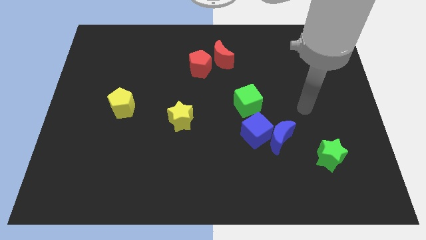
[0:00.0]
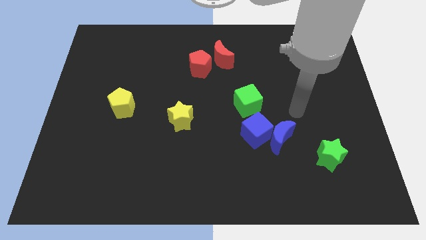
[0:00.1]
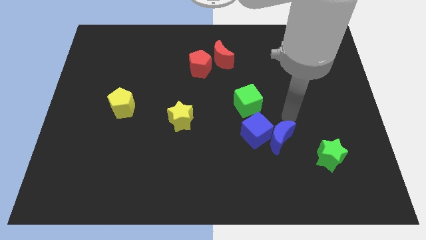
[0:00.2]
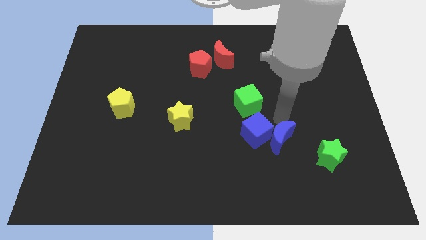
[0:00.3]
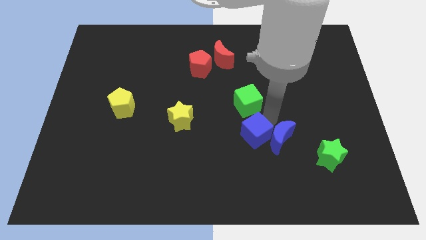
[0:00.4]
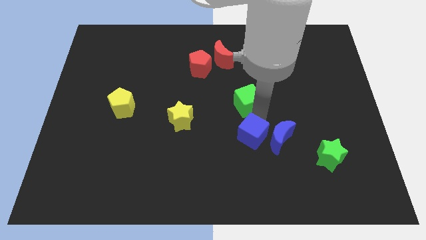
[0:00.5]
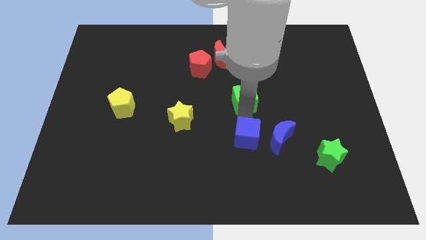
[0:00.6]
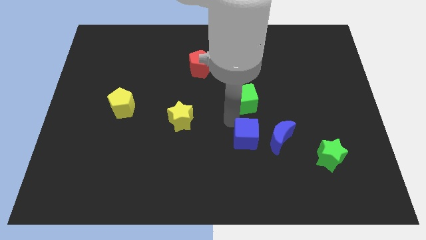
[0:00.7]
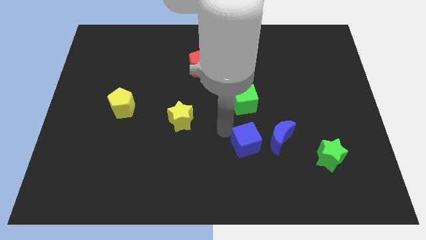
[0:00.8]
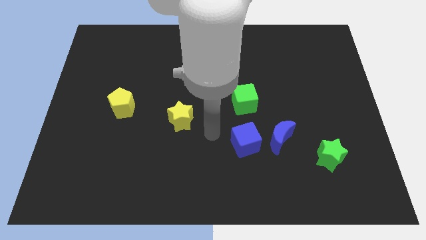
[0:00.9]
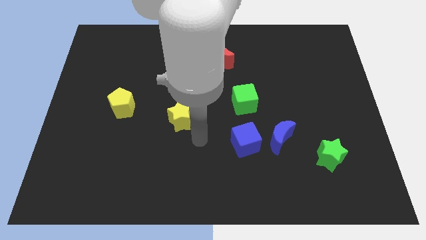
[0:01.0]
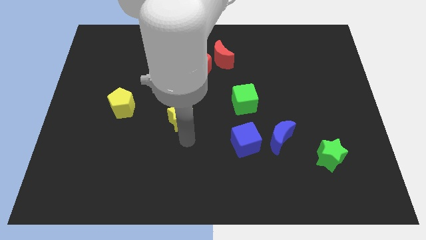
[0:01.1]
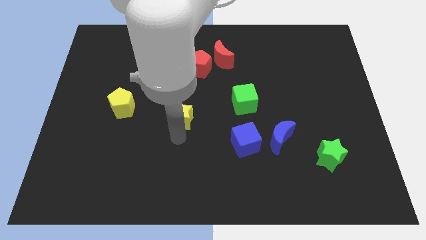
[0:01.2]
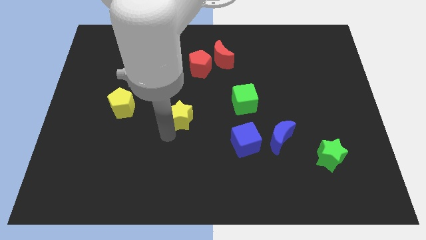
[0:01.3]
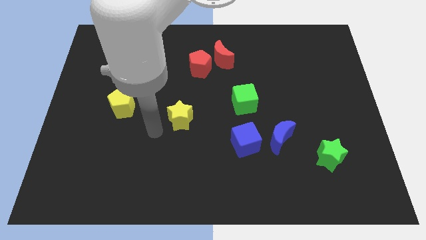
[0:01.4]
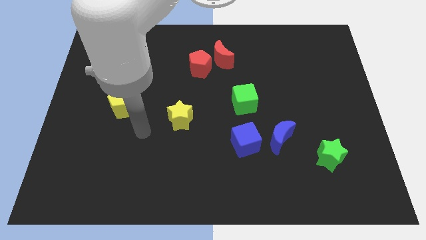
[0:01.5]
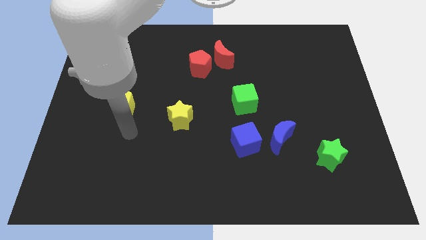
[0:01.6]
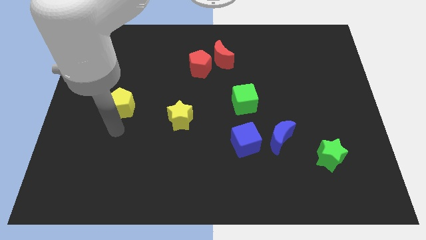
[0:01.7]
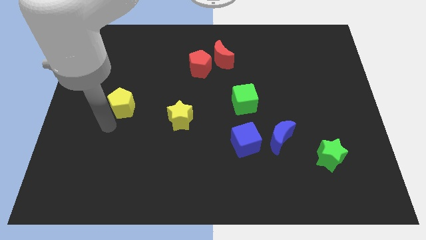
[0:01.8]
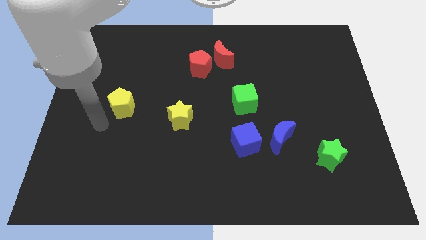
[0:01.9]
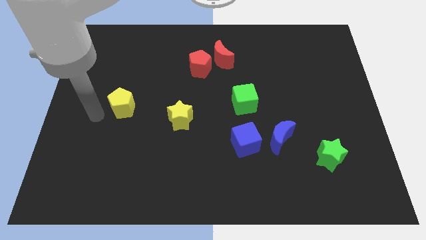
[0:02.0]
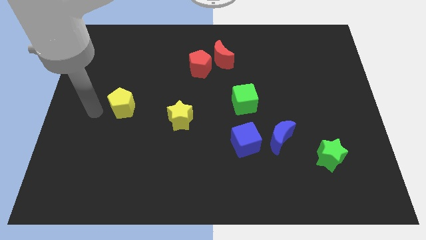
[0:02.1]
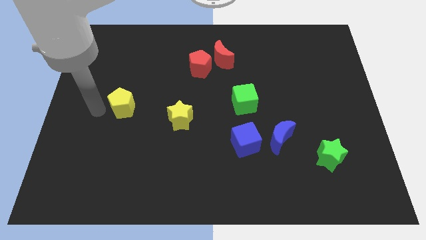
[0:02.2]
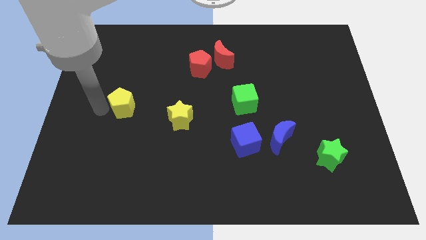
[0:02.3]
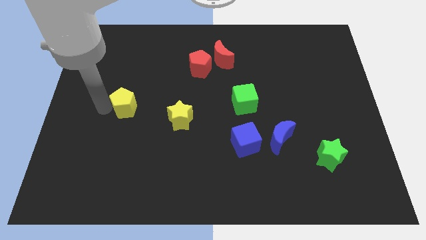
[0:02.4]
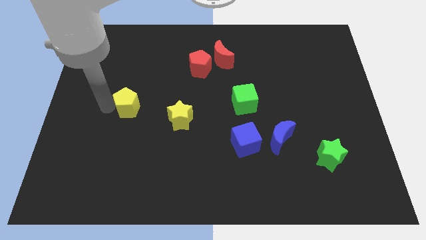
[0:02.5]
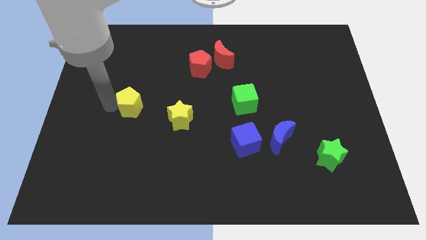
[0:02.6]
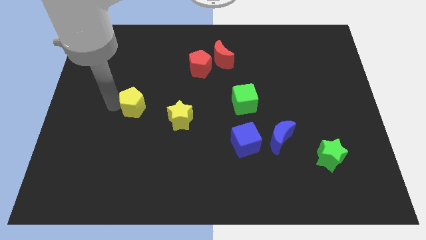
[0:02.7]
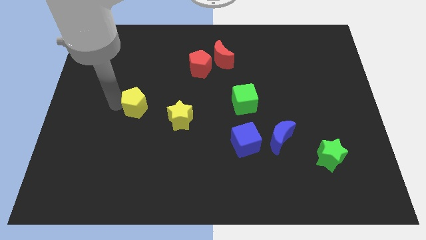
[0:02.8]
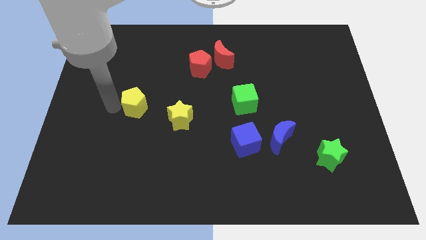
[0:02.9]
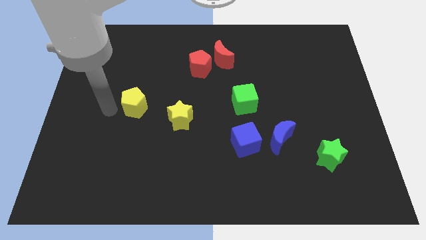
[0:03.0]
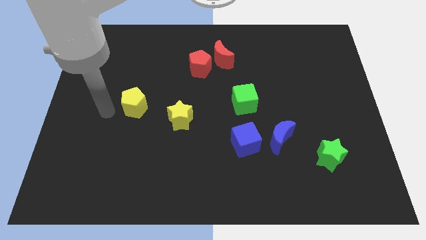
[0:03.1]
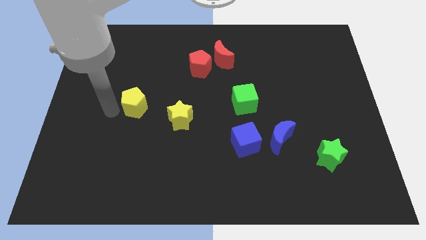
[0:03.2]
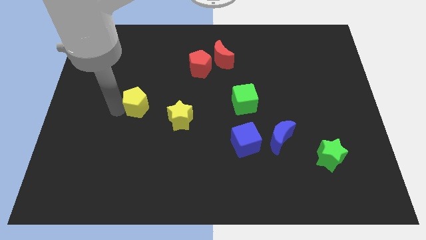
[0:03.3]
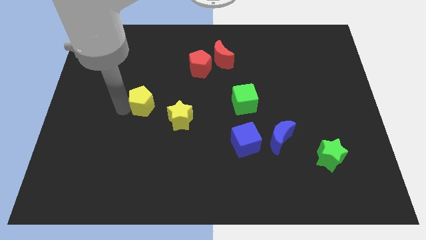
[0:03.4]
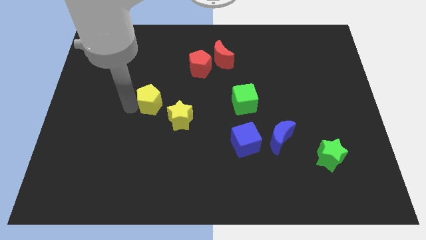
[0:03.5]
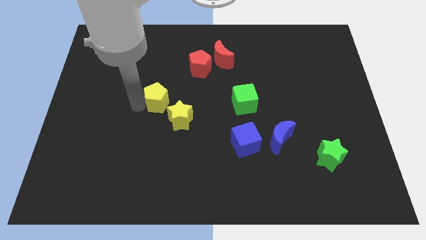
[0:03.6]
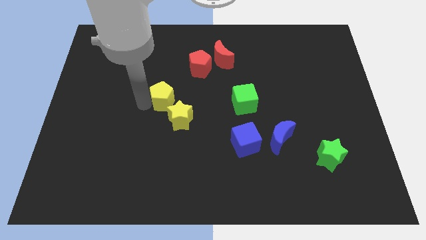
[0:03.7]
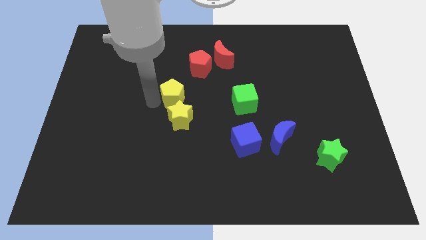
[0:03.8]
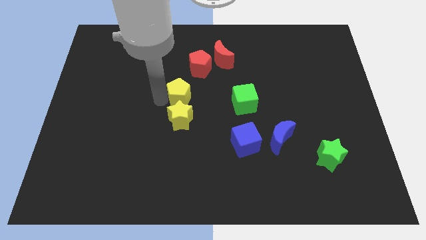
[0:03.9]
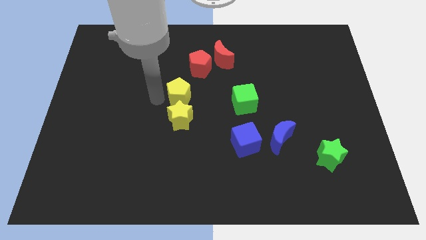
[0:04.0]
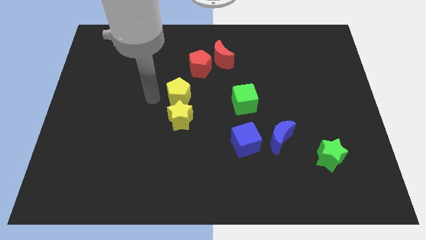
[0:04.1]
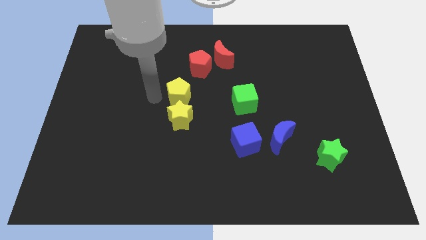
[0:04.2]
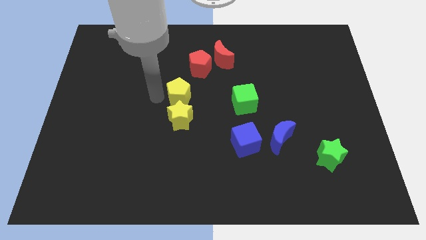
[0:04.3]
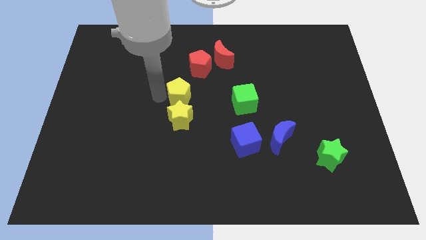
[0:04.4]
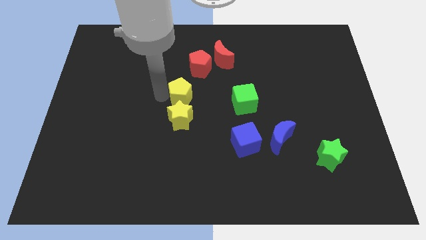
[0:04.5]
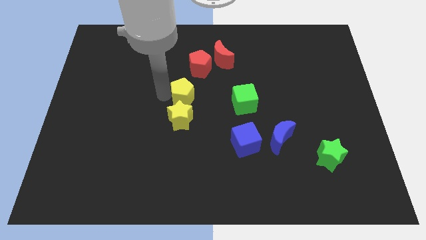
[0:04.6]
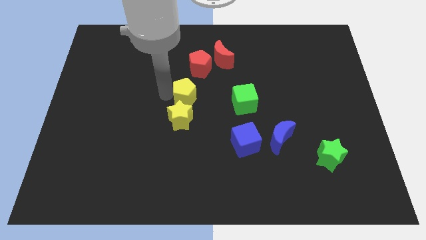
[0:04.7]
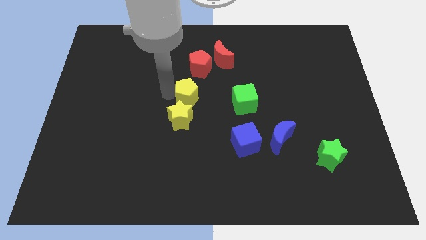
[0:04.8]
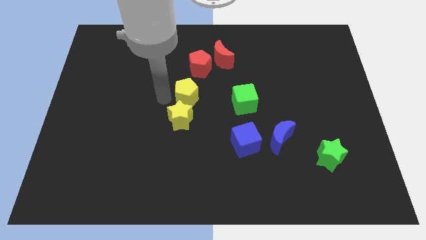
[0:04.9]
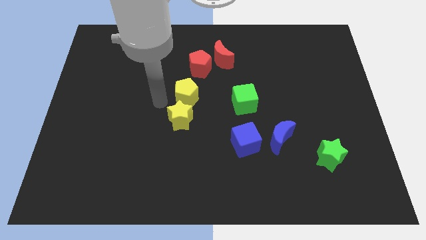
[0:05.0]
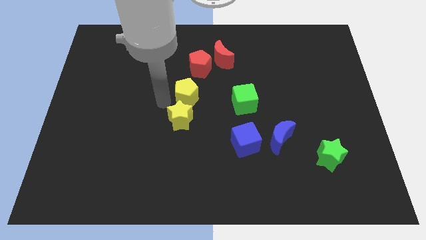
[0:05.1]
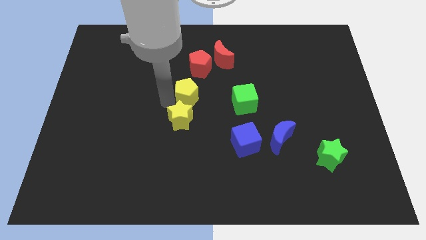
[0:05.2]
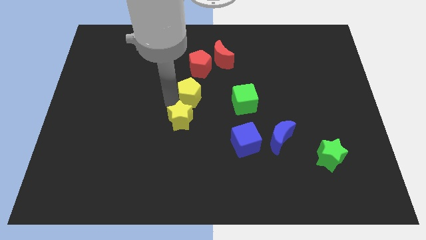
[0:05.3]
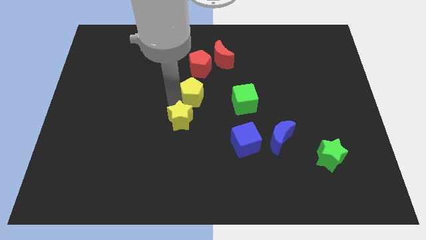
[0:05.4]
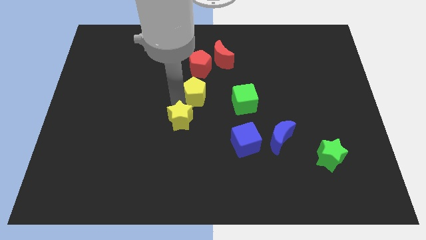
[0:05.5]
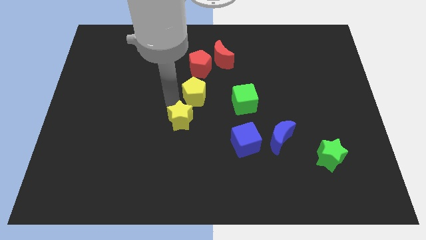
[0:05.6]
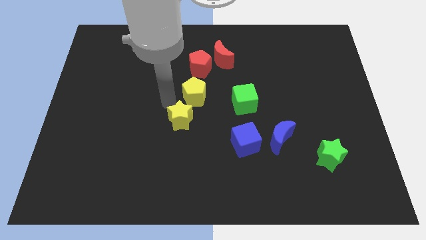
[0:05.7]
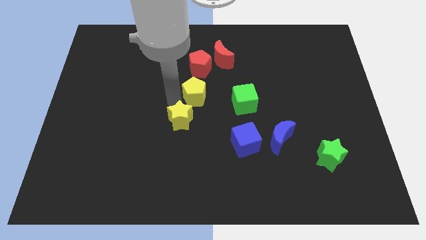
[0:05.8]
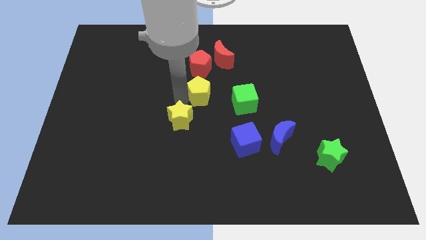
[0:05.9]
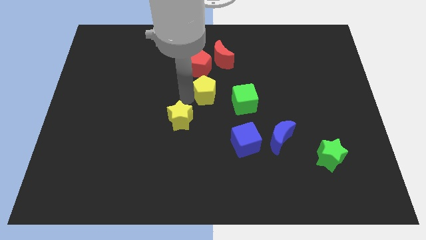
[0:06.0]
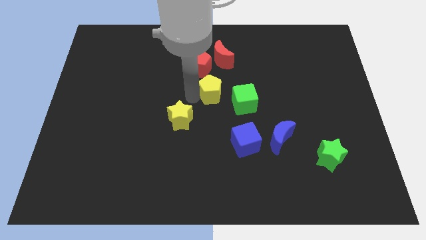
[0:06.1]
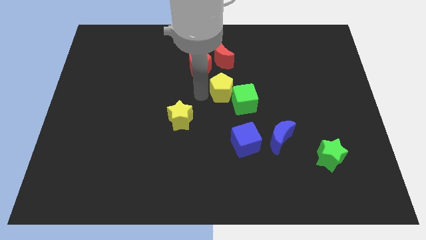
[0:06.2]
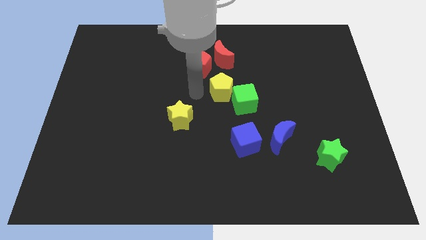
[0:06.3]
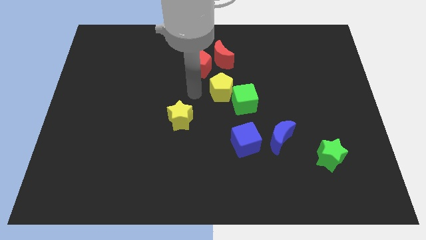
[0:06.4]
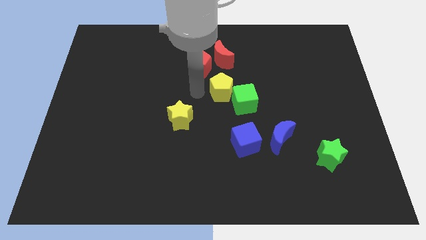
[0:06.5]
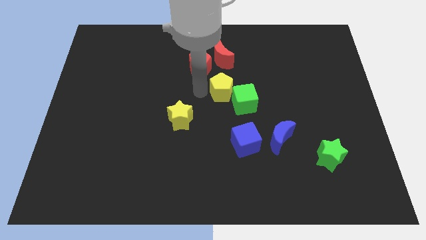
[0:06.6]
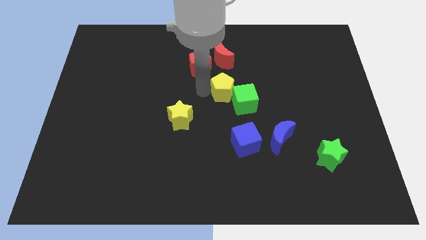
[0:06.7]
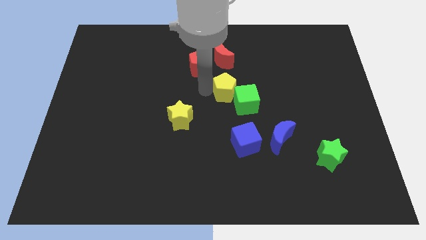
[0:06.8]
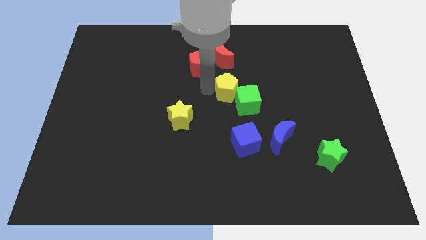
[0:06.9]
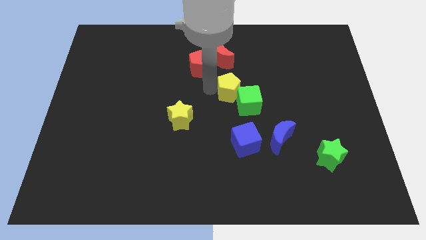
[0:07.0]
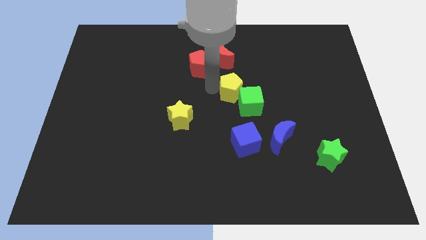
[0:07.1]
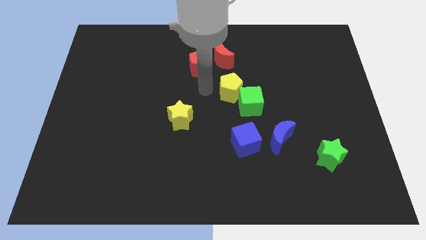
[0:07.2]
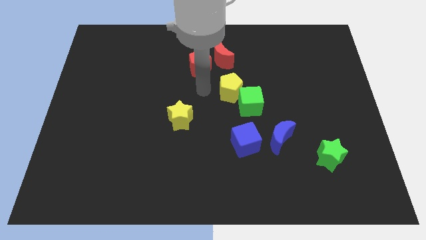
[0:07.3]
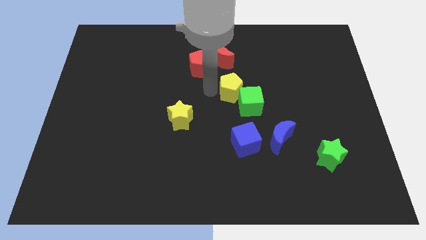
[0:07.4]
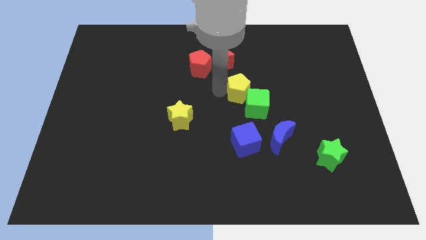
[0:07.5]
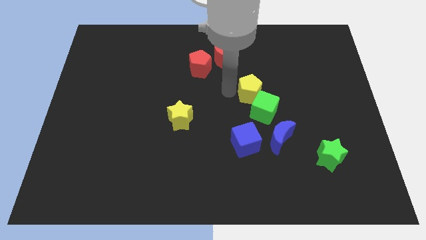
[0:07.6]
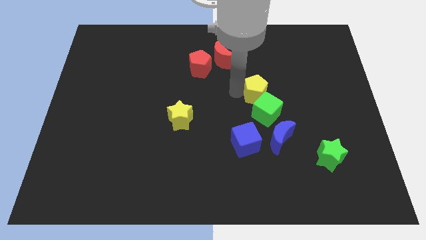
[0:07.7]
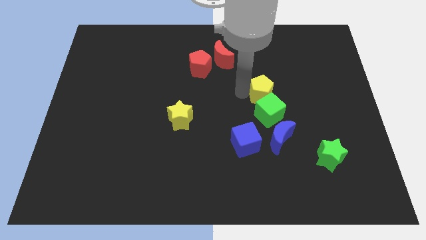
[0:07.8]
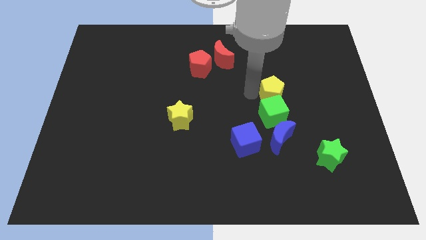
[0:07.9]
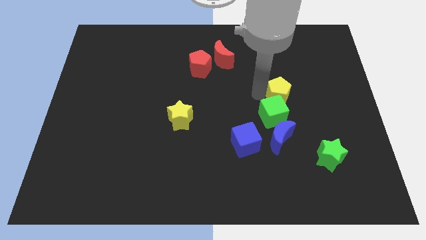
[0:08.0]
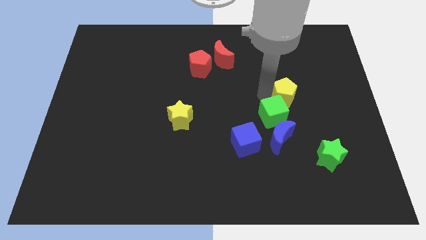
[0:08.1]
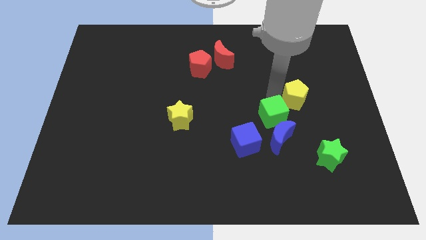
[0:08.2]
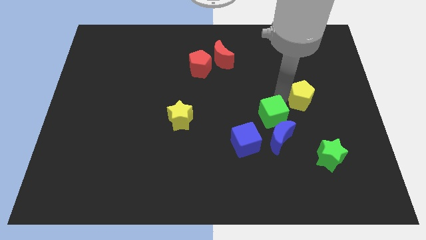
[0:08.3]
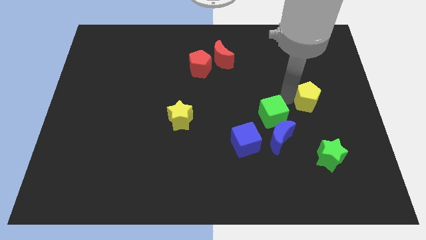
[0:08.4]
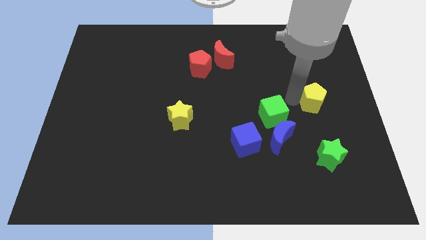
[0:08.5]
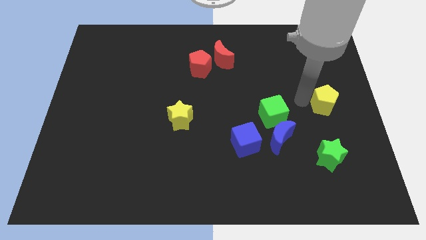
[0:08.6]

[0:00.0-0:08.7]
push the yellow pentagon to the right side
